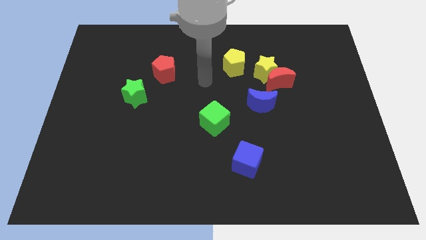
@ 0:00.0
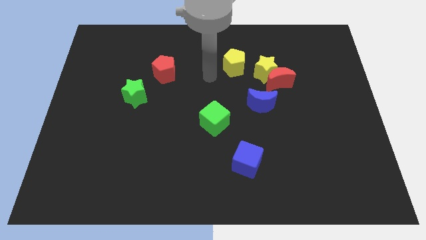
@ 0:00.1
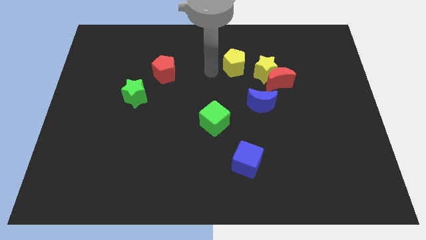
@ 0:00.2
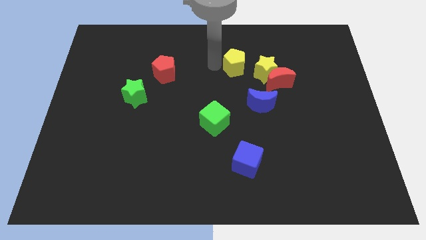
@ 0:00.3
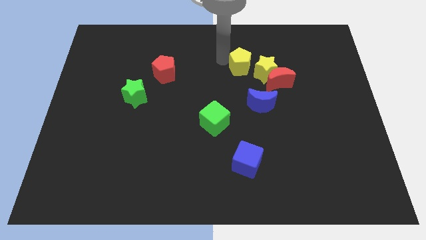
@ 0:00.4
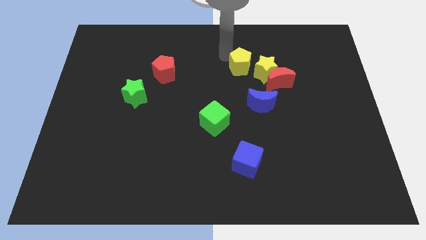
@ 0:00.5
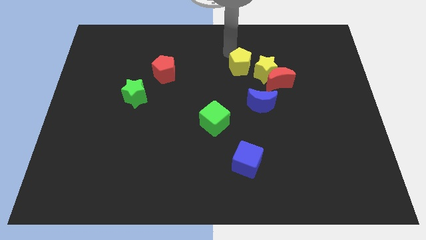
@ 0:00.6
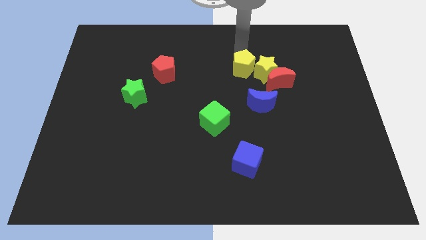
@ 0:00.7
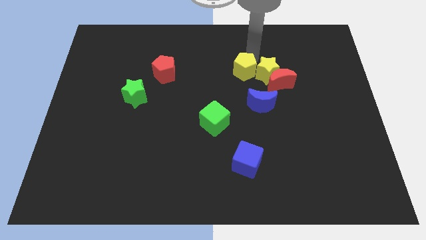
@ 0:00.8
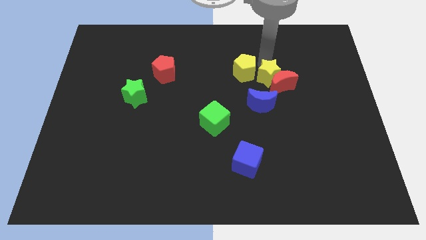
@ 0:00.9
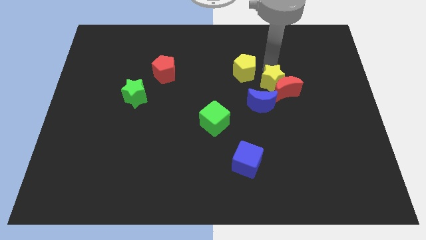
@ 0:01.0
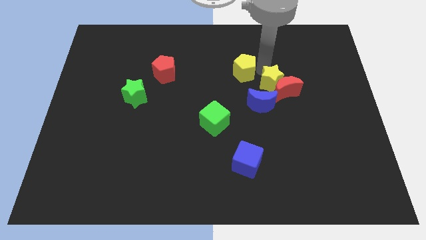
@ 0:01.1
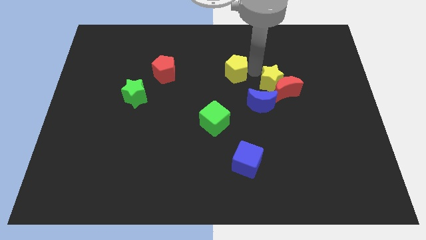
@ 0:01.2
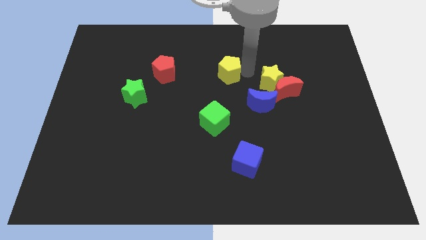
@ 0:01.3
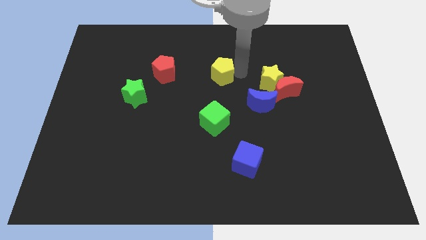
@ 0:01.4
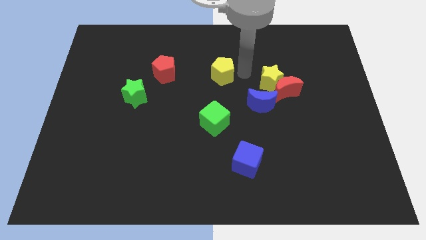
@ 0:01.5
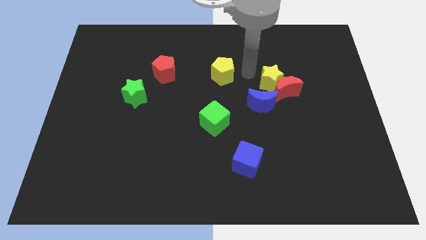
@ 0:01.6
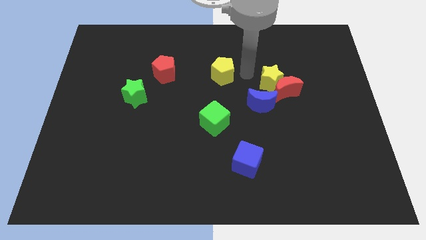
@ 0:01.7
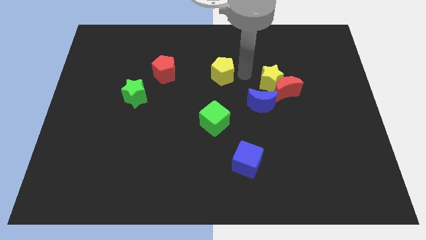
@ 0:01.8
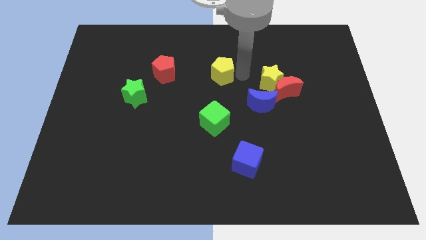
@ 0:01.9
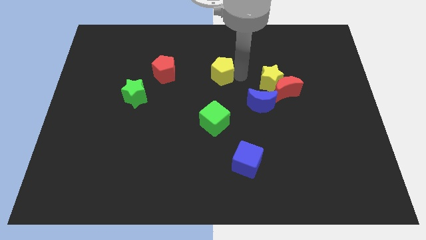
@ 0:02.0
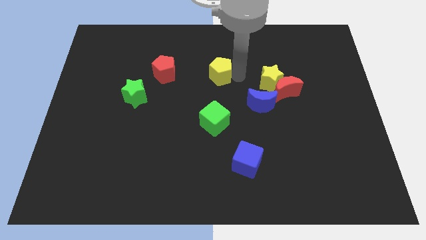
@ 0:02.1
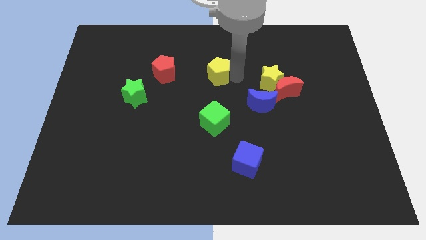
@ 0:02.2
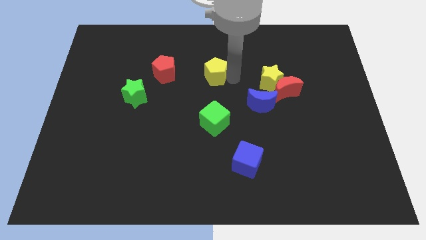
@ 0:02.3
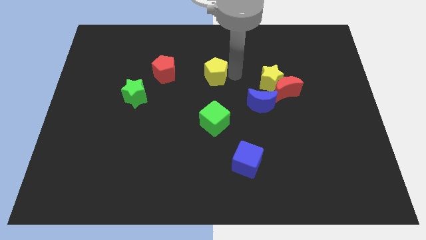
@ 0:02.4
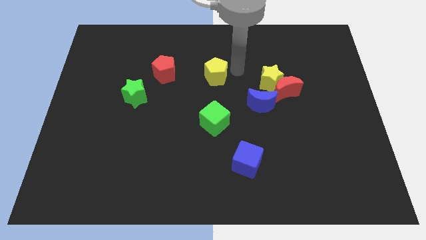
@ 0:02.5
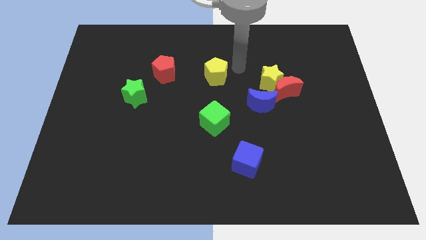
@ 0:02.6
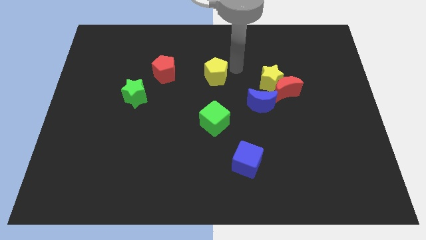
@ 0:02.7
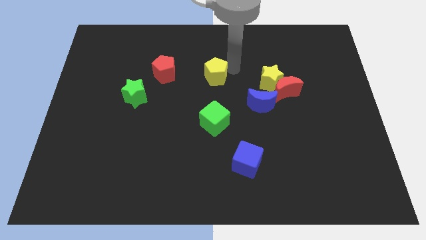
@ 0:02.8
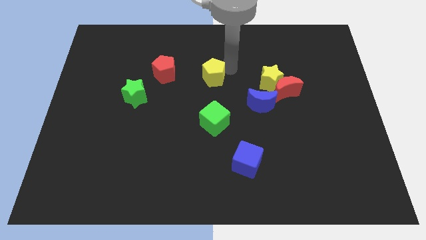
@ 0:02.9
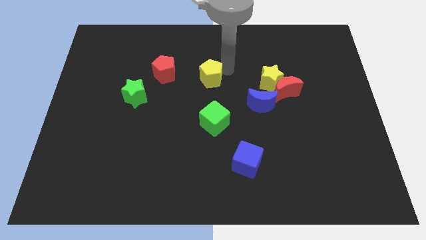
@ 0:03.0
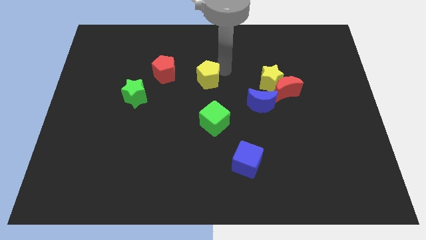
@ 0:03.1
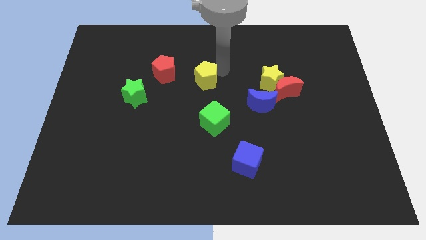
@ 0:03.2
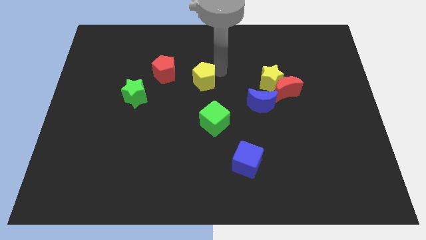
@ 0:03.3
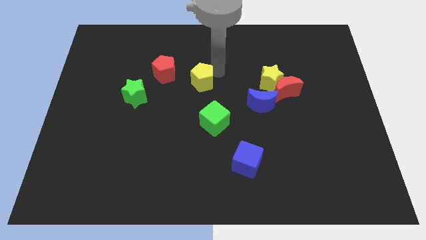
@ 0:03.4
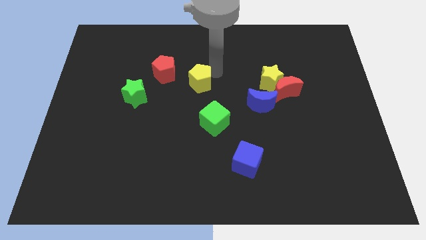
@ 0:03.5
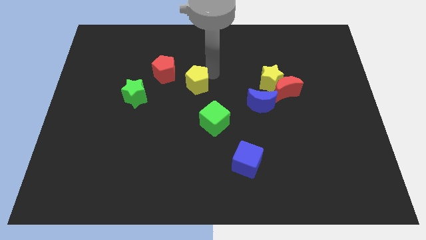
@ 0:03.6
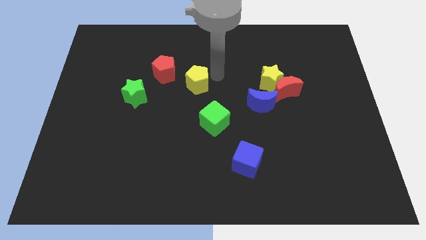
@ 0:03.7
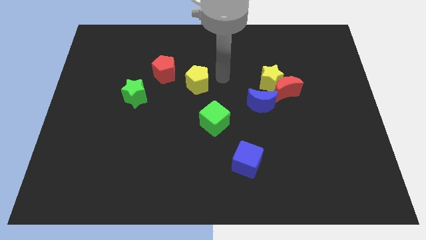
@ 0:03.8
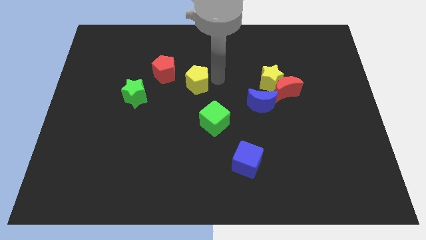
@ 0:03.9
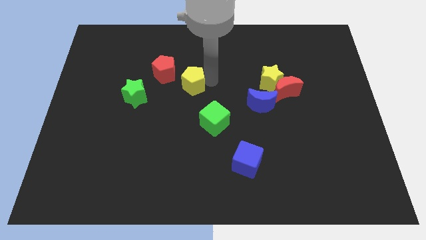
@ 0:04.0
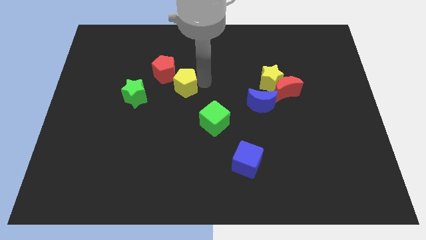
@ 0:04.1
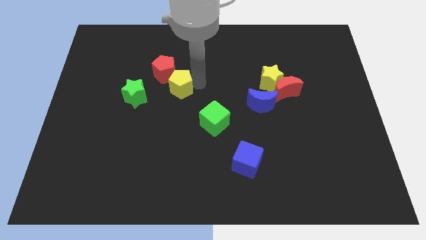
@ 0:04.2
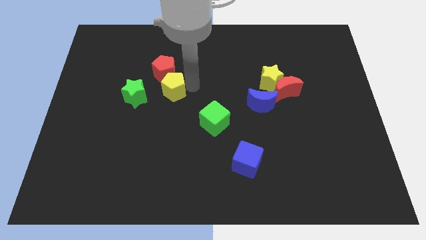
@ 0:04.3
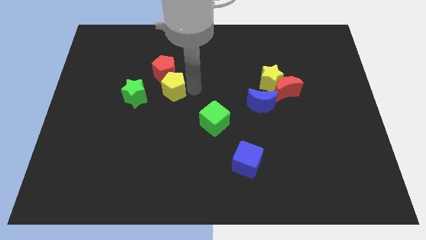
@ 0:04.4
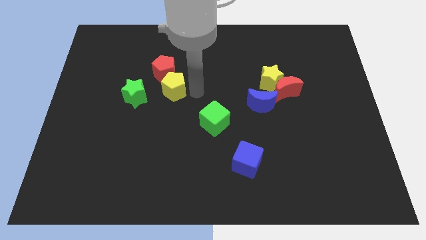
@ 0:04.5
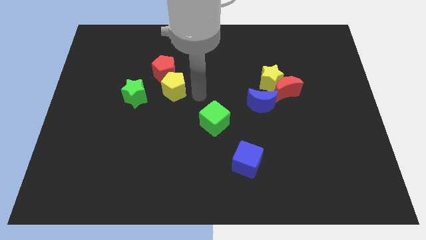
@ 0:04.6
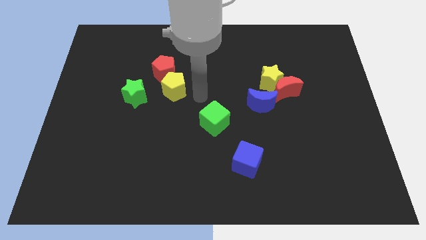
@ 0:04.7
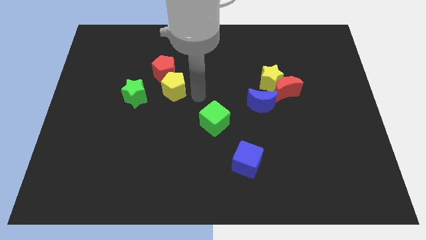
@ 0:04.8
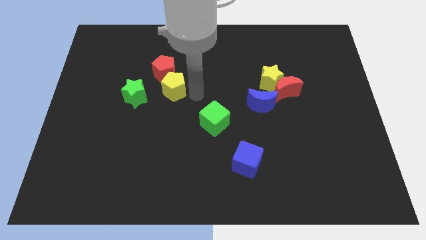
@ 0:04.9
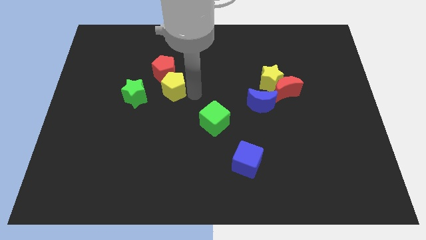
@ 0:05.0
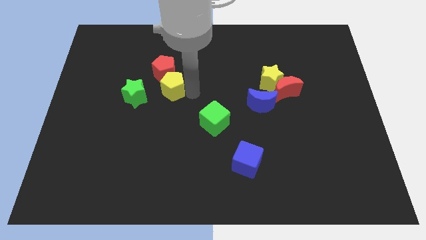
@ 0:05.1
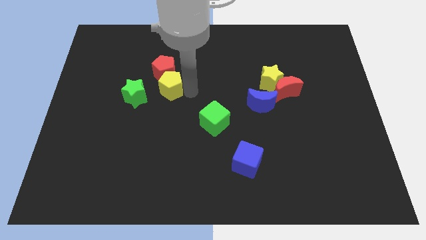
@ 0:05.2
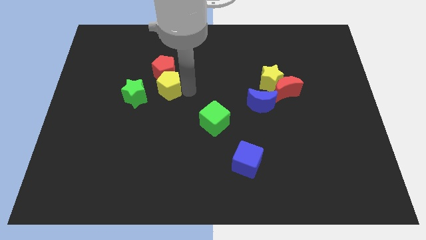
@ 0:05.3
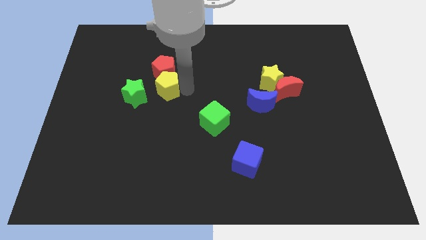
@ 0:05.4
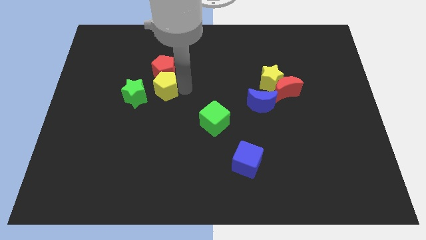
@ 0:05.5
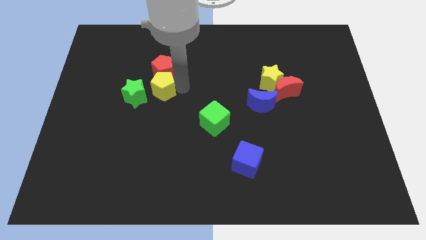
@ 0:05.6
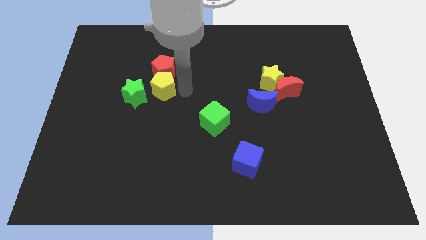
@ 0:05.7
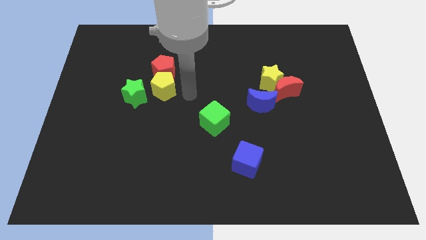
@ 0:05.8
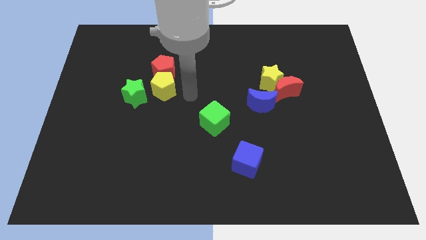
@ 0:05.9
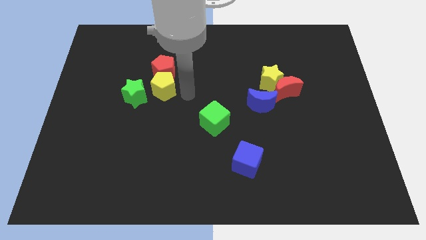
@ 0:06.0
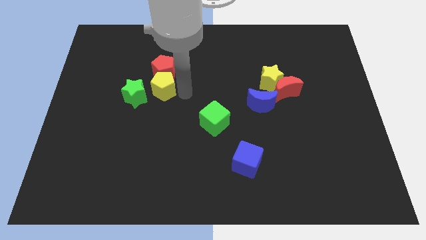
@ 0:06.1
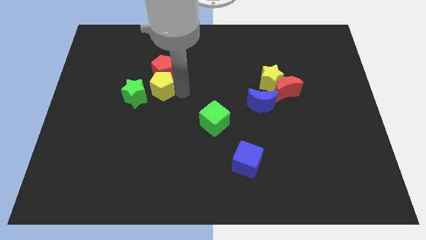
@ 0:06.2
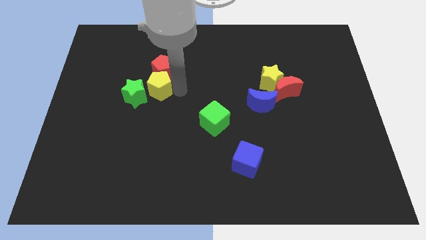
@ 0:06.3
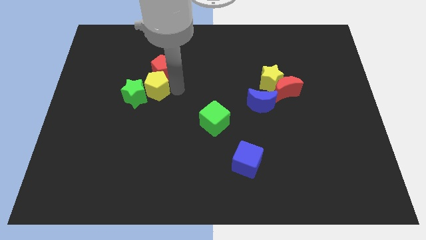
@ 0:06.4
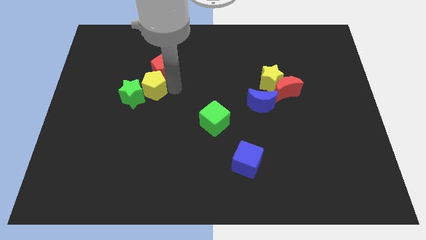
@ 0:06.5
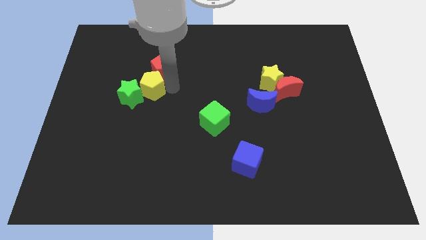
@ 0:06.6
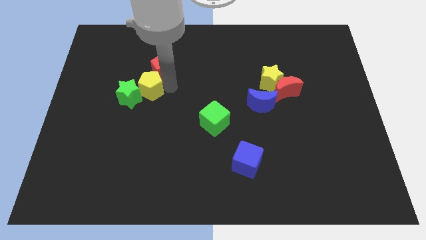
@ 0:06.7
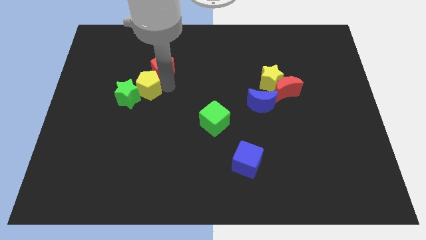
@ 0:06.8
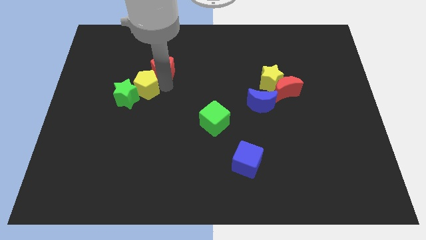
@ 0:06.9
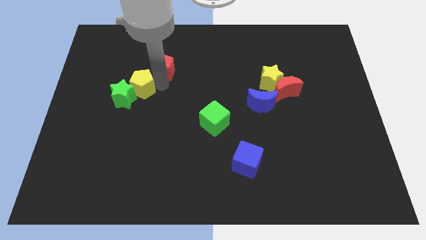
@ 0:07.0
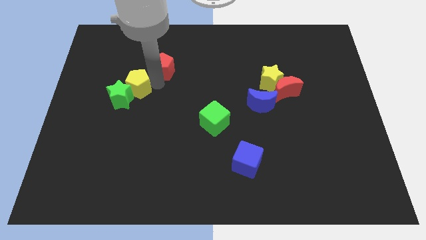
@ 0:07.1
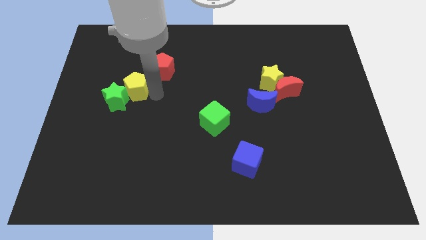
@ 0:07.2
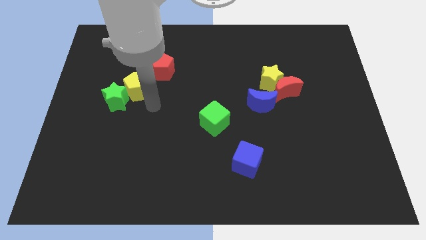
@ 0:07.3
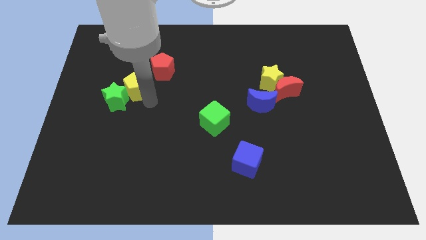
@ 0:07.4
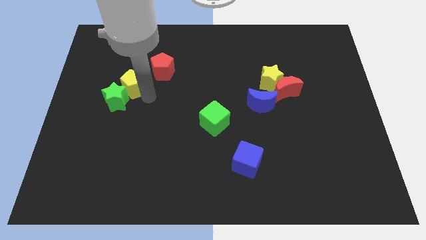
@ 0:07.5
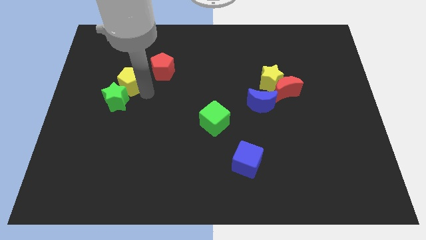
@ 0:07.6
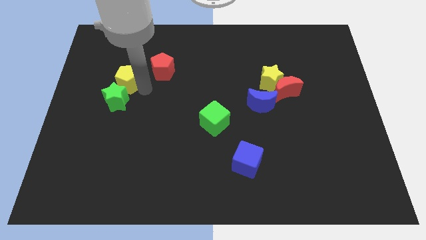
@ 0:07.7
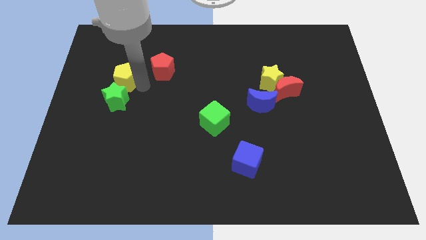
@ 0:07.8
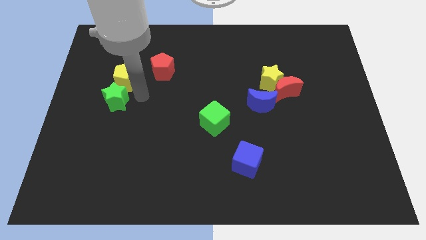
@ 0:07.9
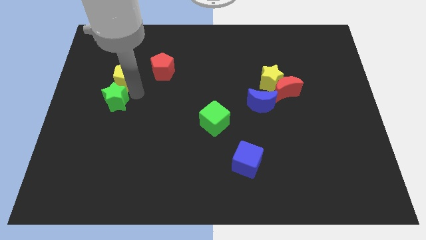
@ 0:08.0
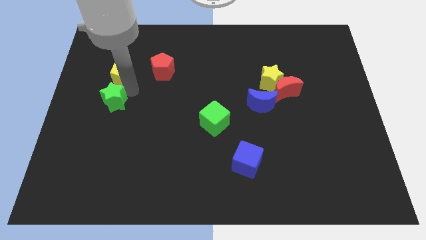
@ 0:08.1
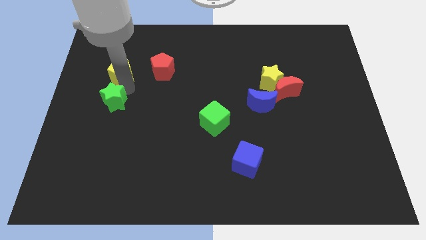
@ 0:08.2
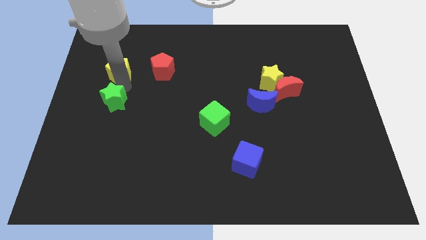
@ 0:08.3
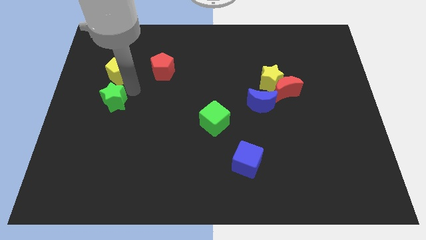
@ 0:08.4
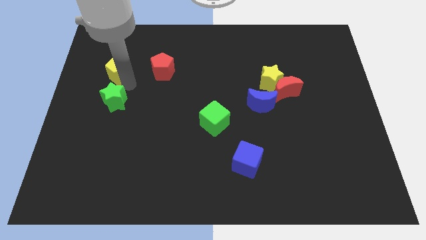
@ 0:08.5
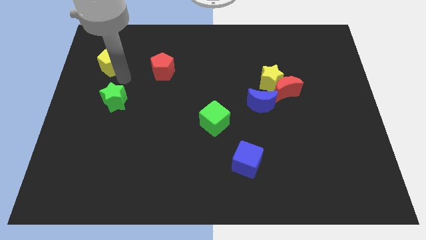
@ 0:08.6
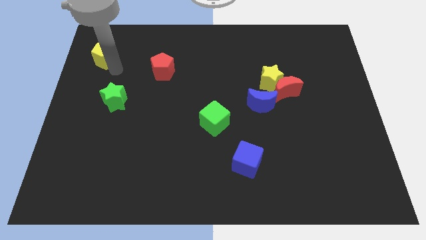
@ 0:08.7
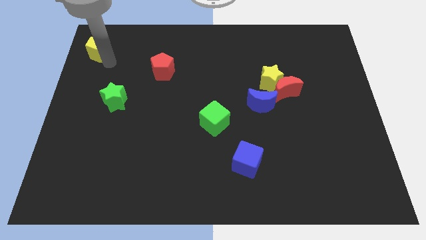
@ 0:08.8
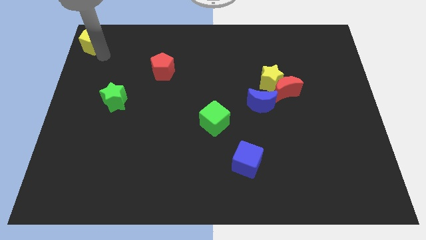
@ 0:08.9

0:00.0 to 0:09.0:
push the yellow pentagon to the upper left corner
